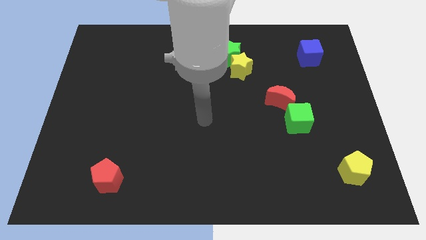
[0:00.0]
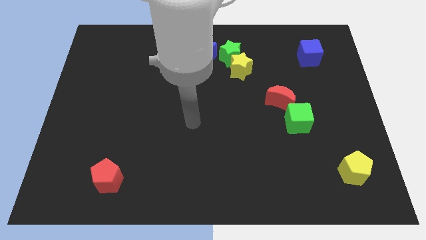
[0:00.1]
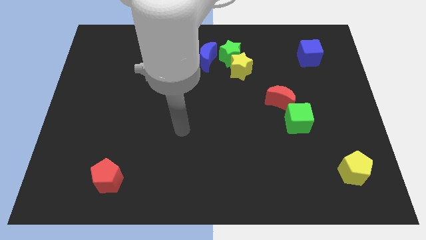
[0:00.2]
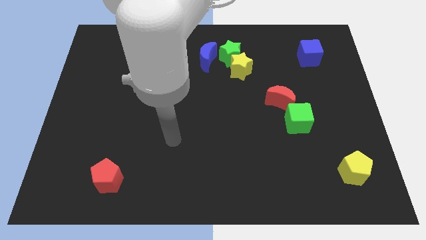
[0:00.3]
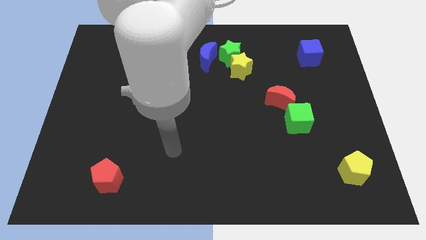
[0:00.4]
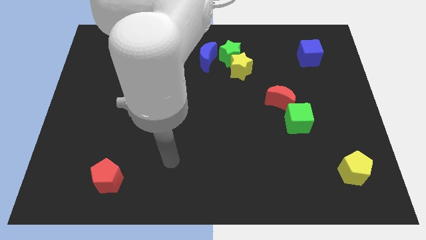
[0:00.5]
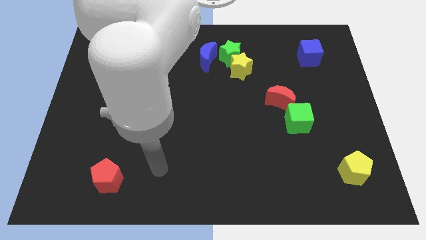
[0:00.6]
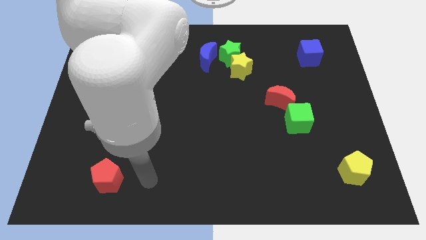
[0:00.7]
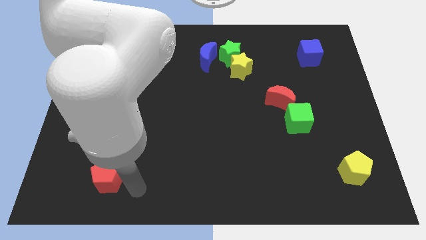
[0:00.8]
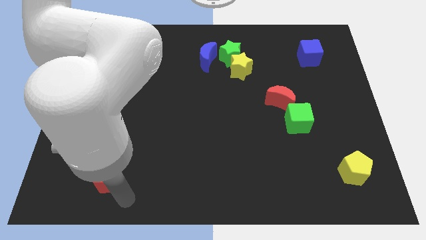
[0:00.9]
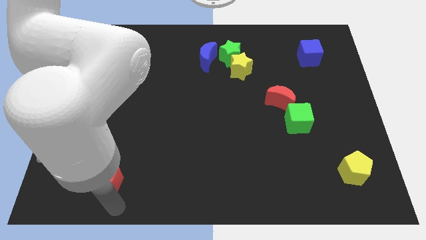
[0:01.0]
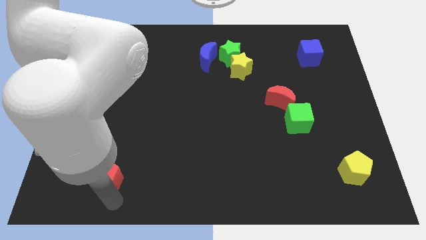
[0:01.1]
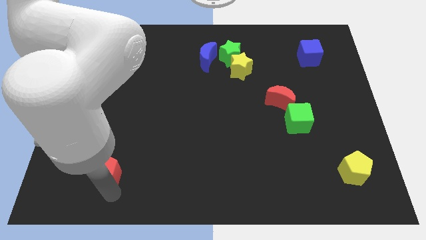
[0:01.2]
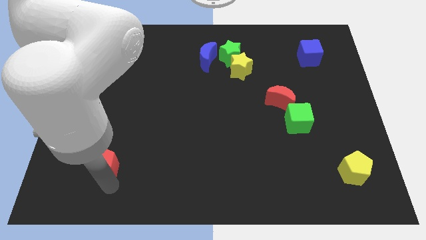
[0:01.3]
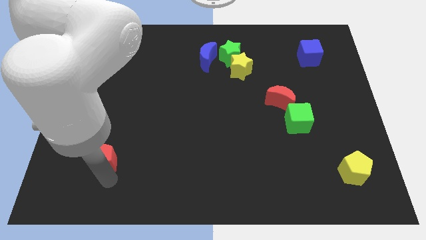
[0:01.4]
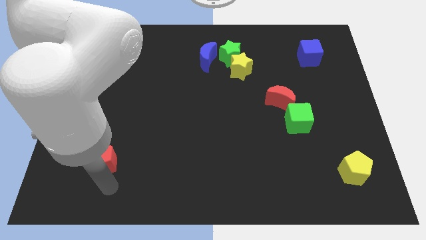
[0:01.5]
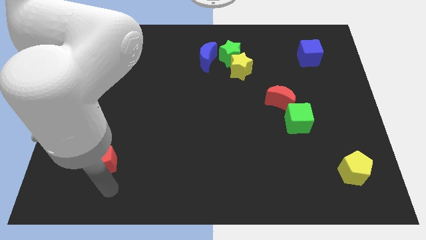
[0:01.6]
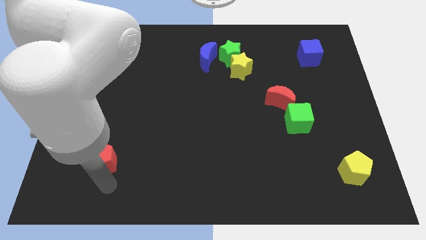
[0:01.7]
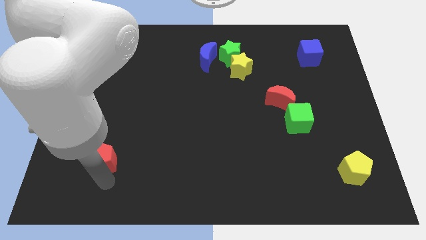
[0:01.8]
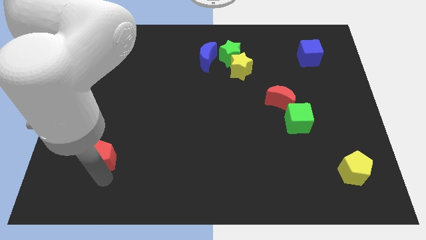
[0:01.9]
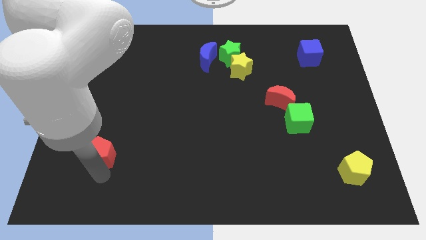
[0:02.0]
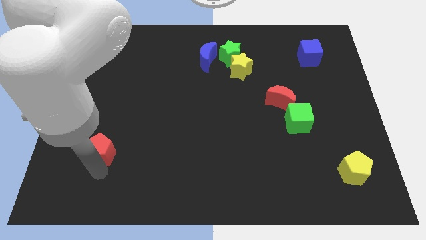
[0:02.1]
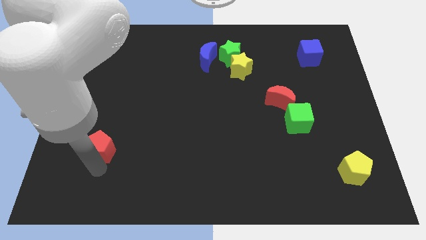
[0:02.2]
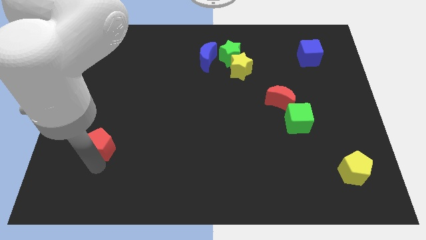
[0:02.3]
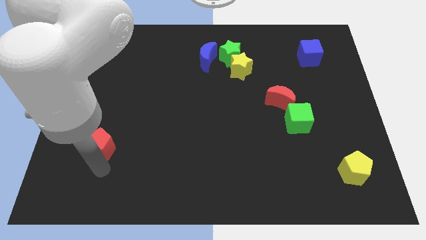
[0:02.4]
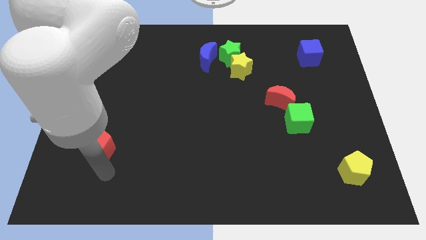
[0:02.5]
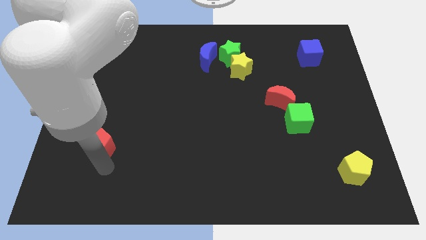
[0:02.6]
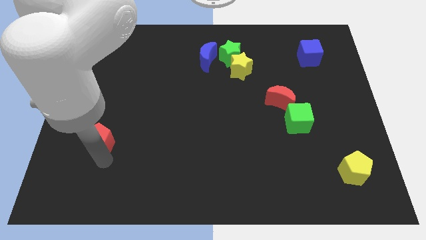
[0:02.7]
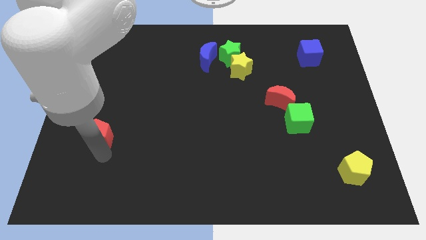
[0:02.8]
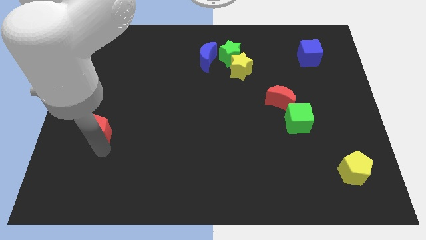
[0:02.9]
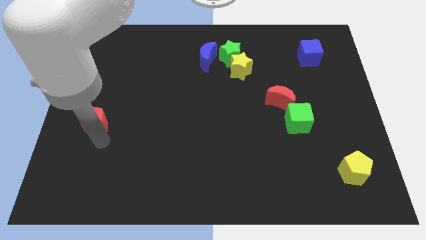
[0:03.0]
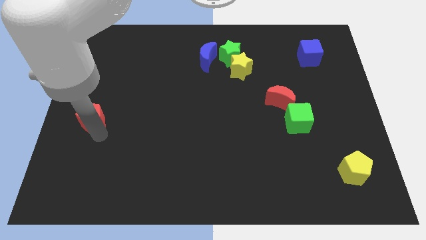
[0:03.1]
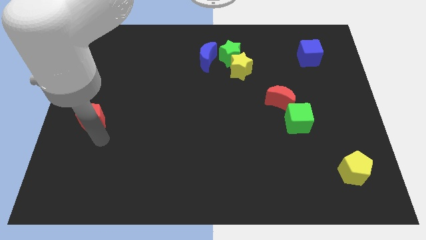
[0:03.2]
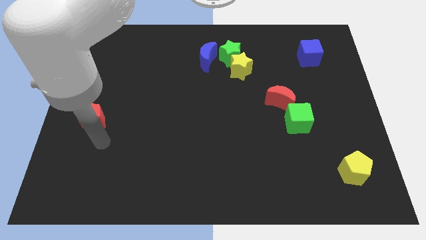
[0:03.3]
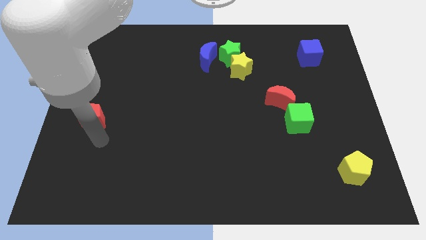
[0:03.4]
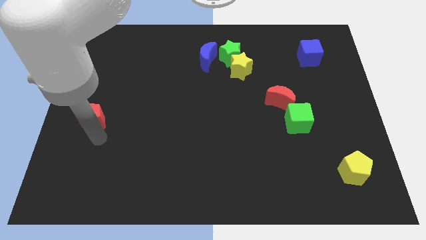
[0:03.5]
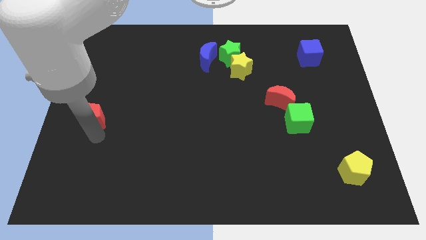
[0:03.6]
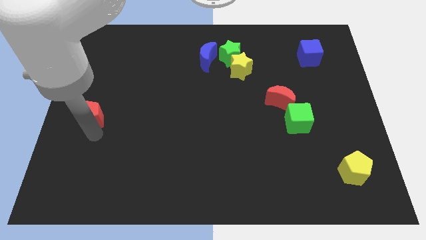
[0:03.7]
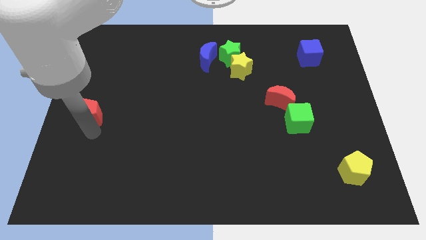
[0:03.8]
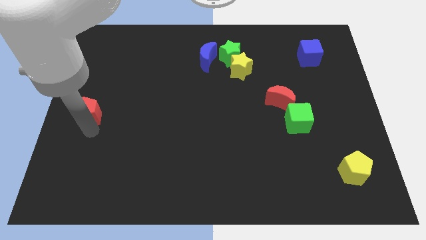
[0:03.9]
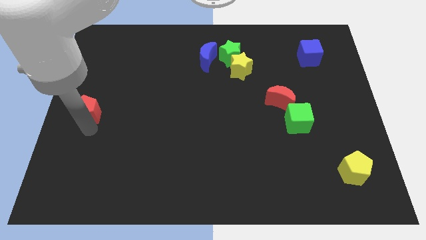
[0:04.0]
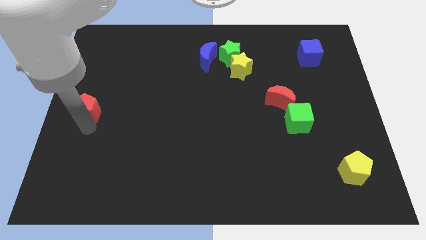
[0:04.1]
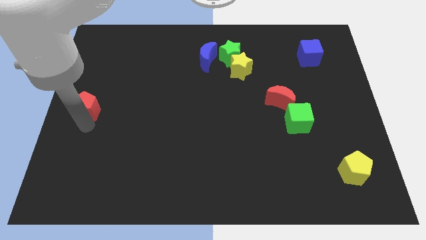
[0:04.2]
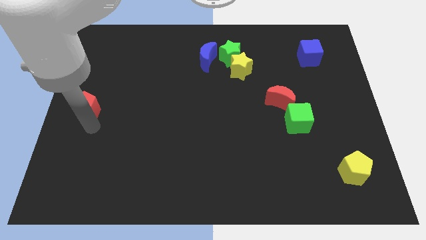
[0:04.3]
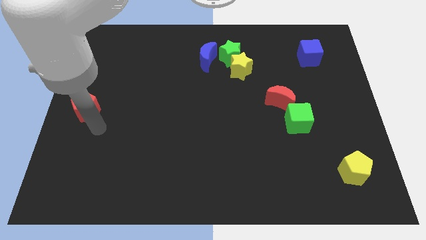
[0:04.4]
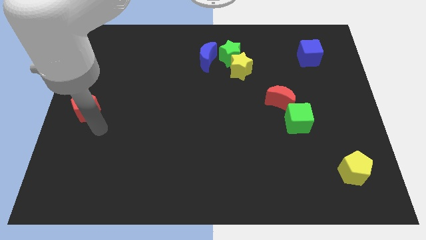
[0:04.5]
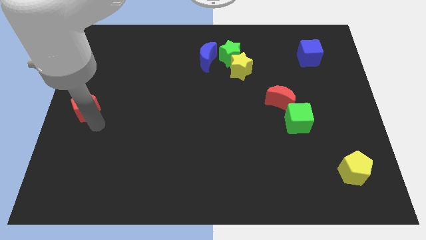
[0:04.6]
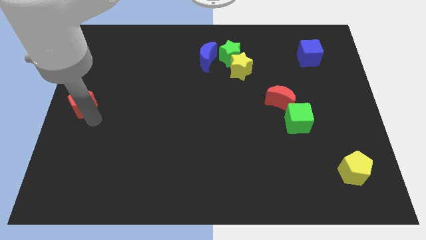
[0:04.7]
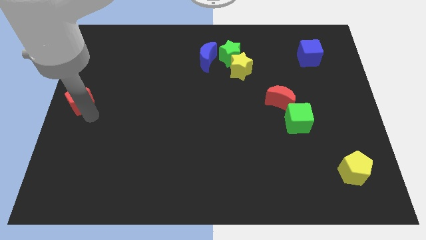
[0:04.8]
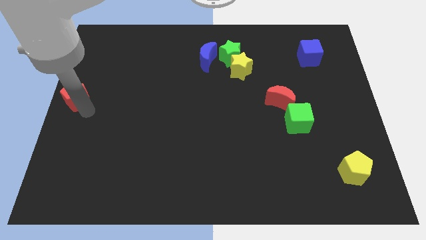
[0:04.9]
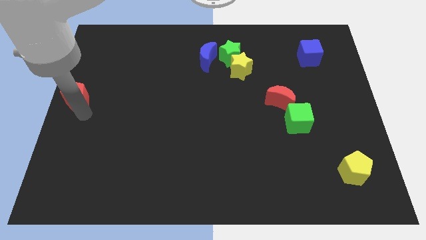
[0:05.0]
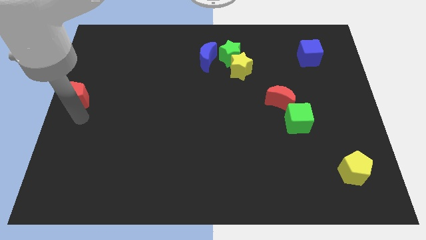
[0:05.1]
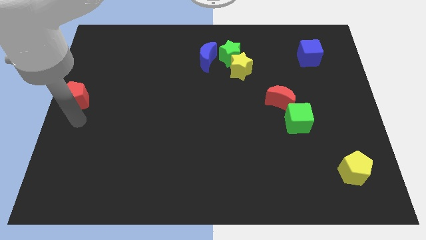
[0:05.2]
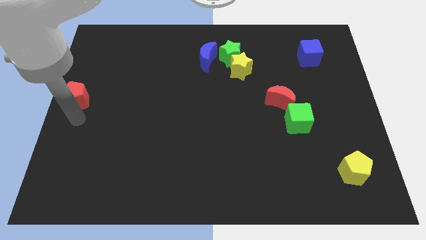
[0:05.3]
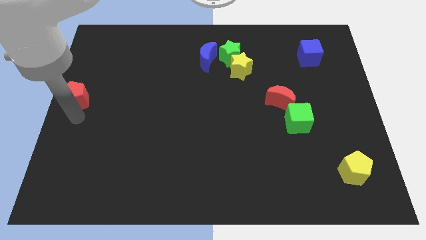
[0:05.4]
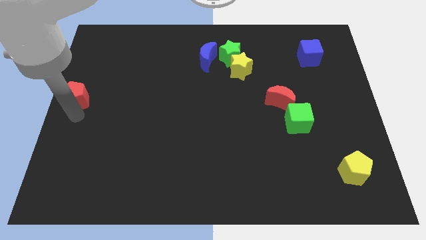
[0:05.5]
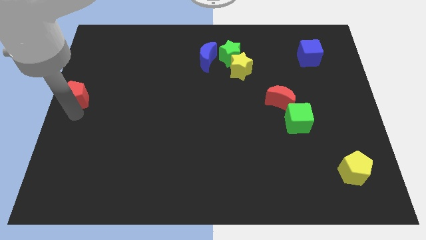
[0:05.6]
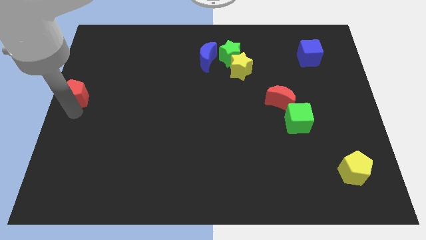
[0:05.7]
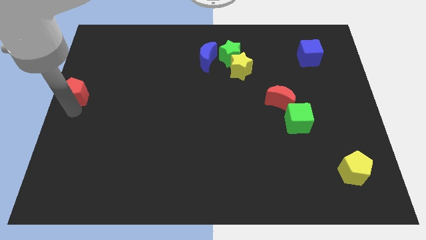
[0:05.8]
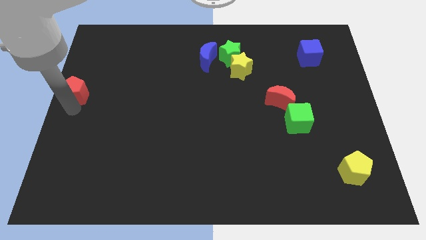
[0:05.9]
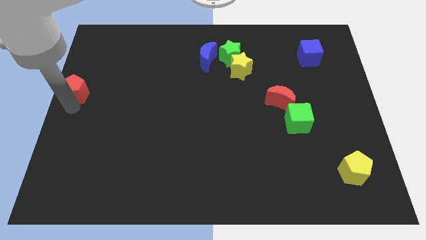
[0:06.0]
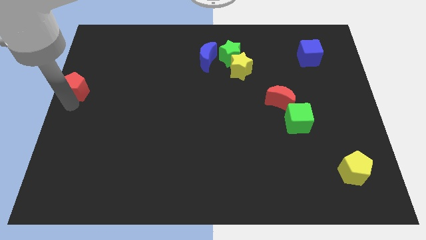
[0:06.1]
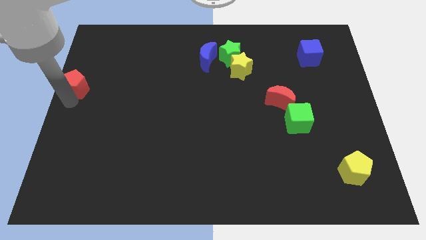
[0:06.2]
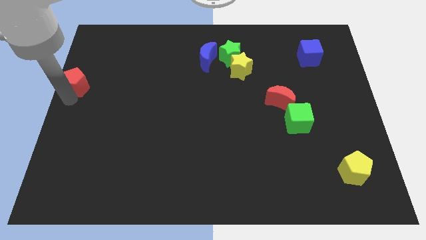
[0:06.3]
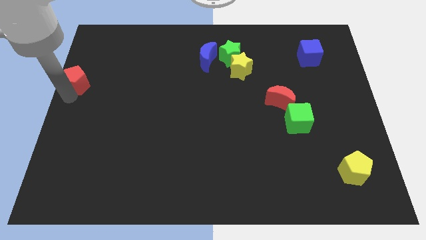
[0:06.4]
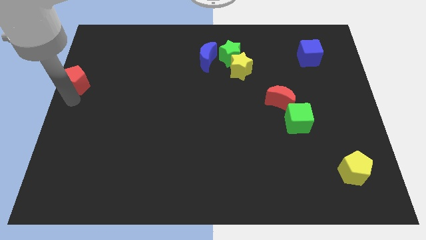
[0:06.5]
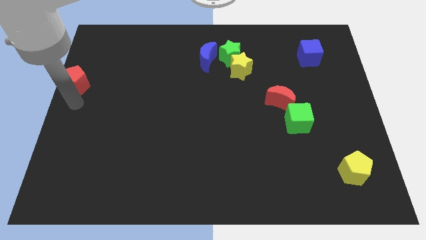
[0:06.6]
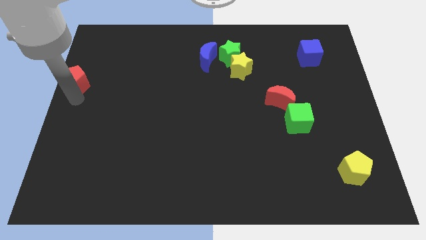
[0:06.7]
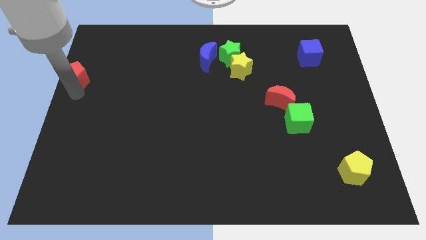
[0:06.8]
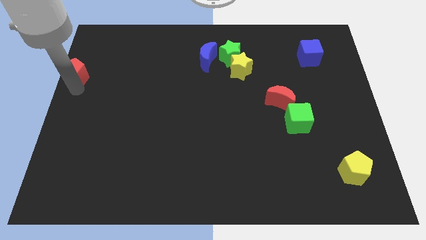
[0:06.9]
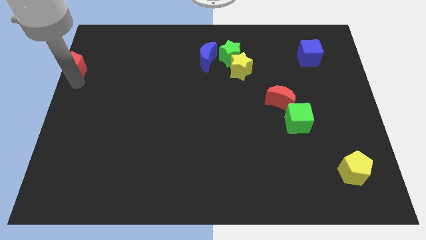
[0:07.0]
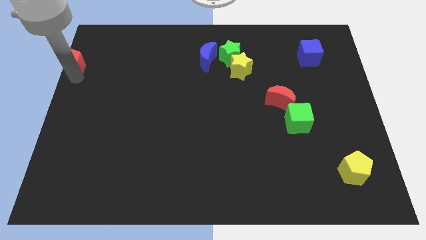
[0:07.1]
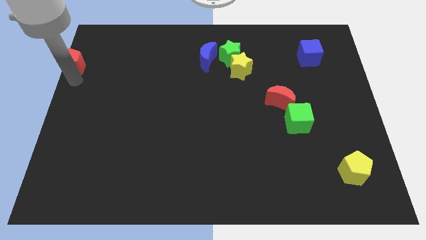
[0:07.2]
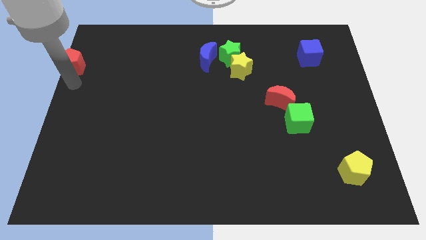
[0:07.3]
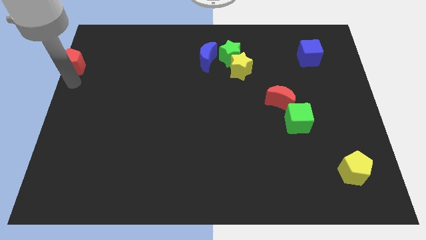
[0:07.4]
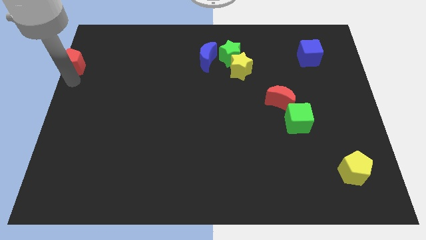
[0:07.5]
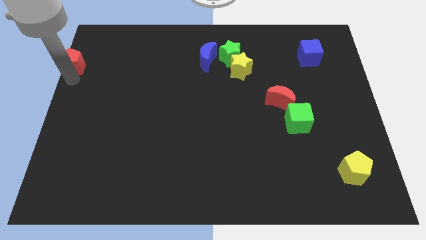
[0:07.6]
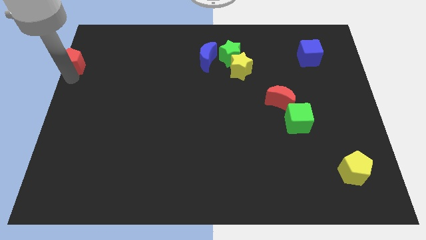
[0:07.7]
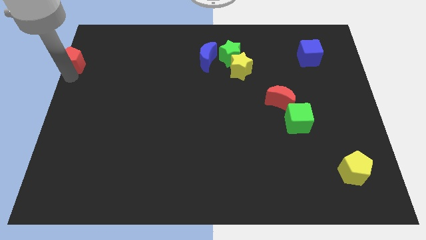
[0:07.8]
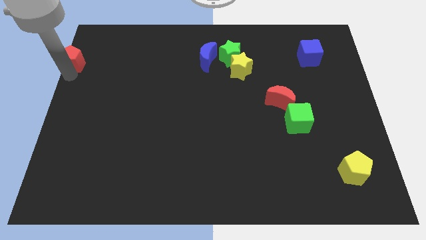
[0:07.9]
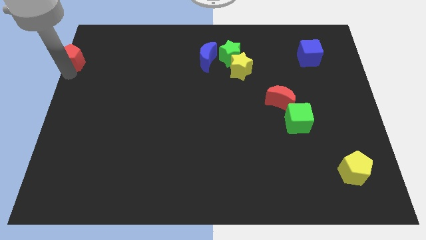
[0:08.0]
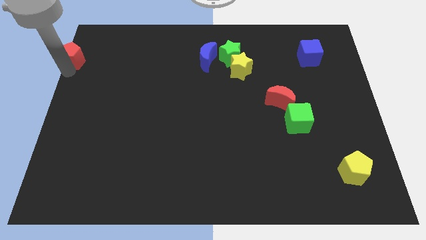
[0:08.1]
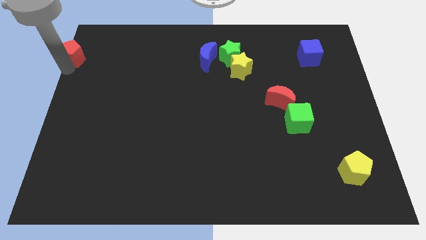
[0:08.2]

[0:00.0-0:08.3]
put the red pentagon to the top left corner
